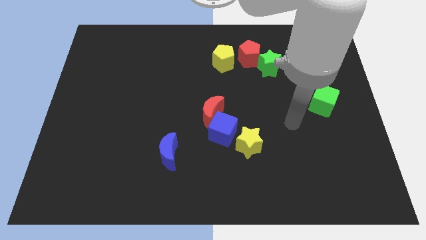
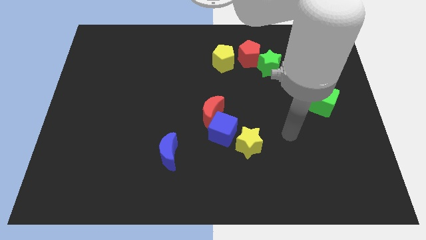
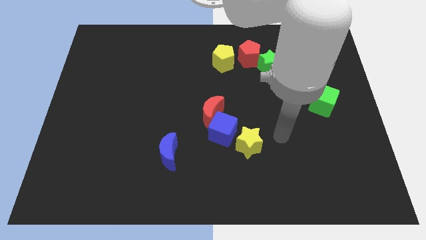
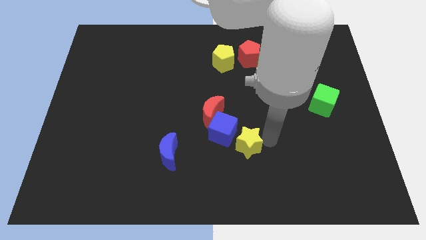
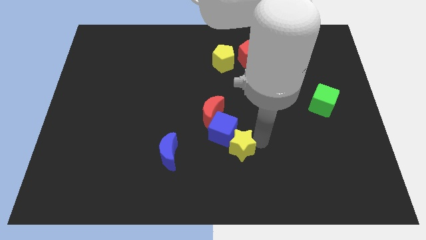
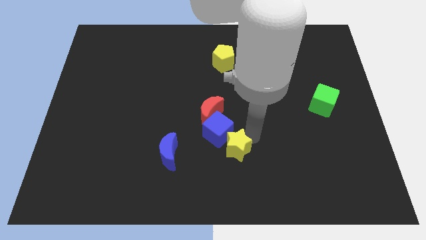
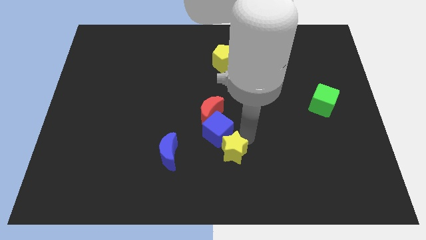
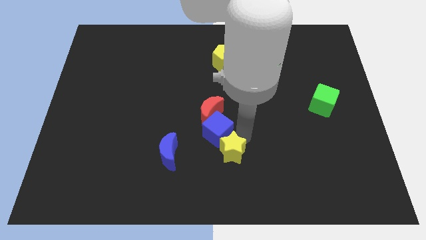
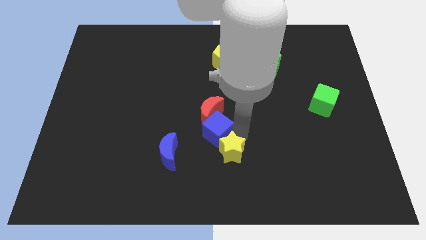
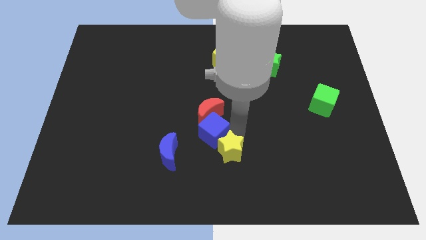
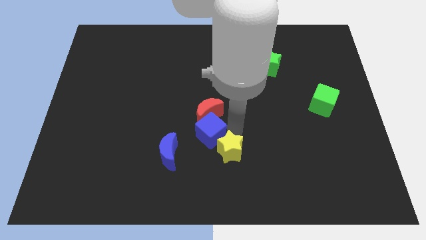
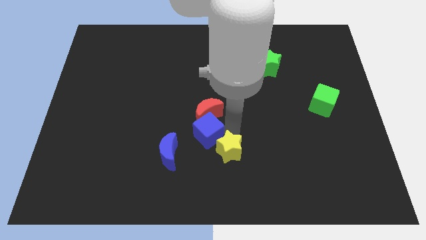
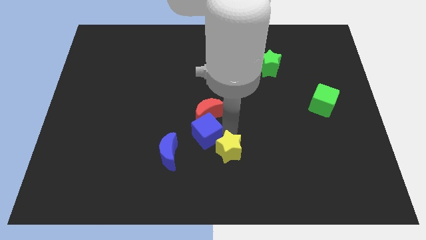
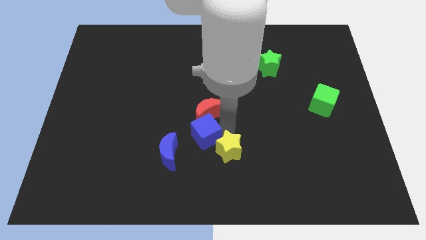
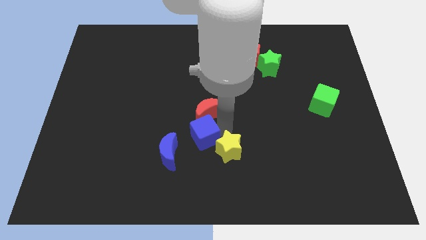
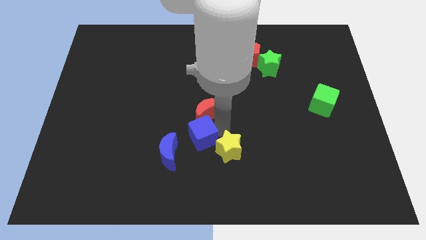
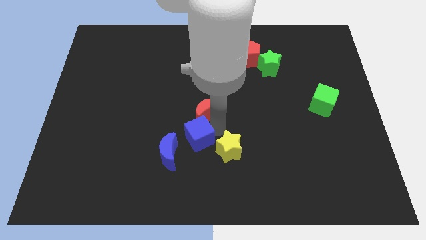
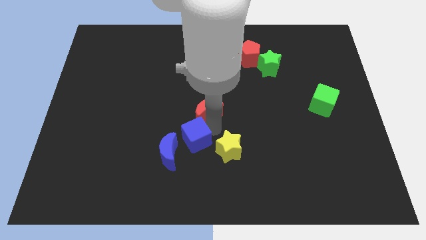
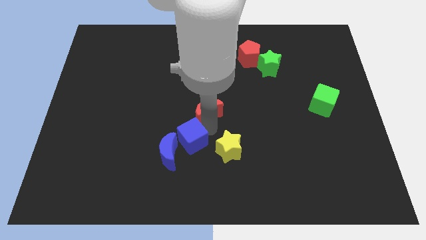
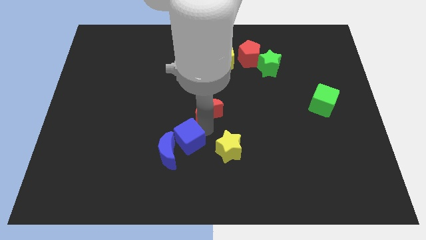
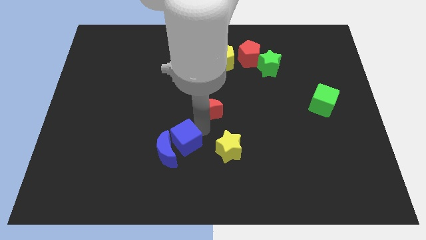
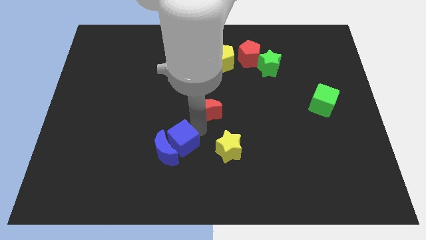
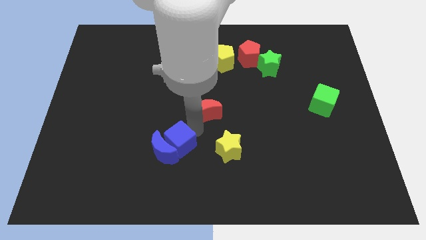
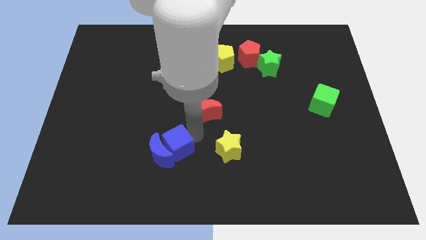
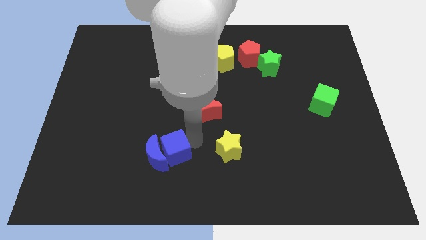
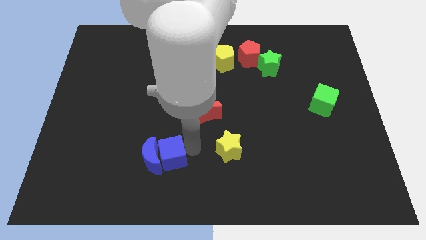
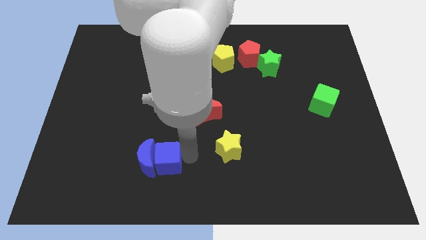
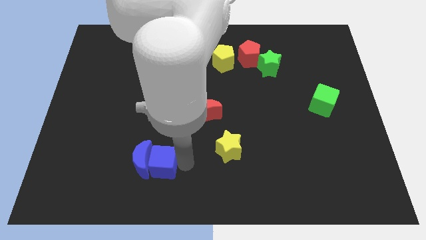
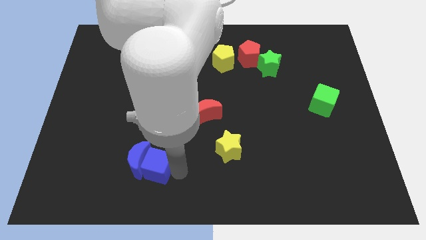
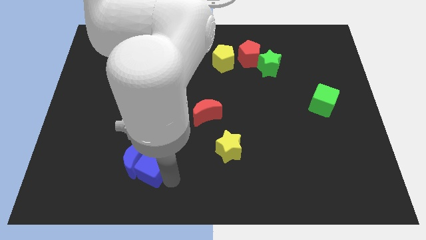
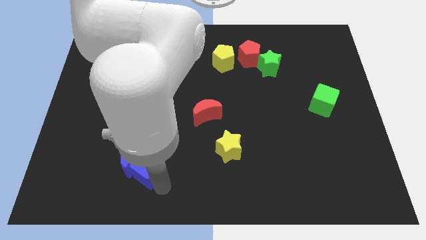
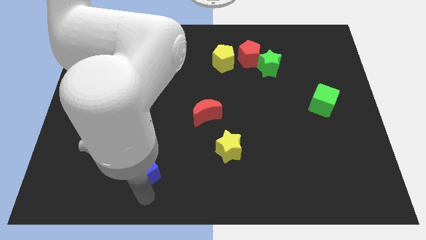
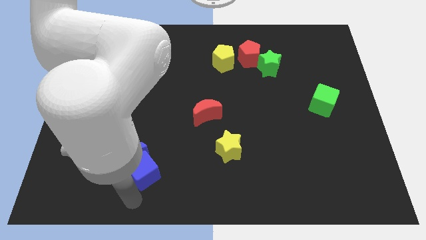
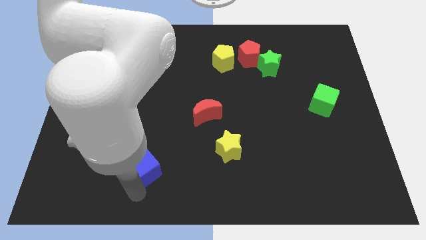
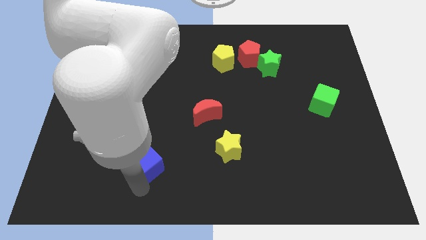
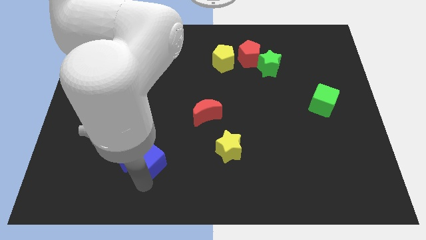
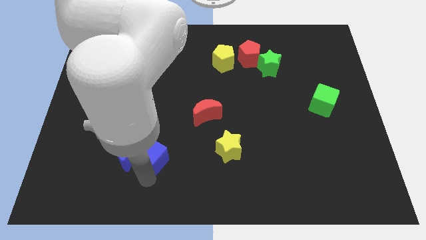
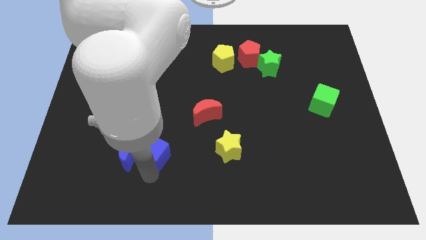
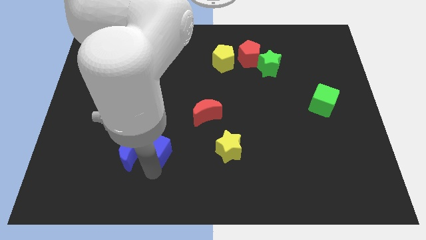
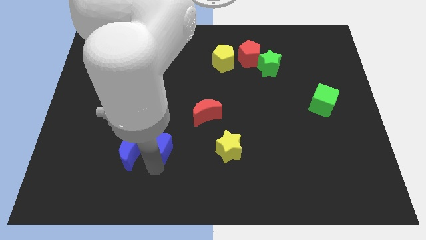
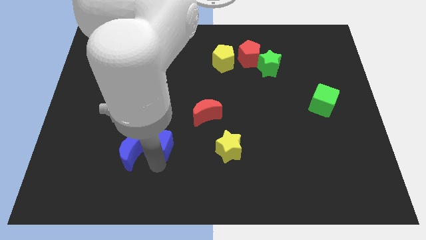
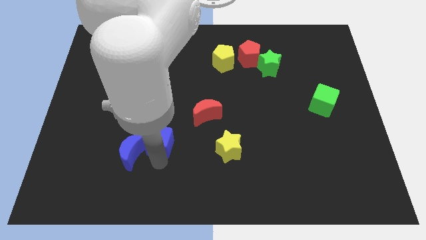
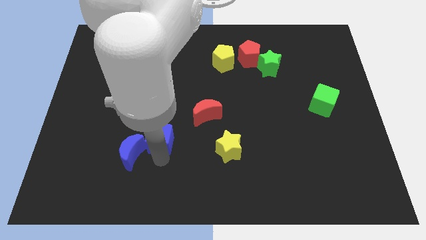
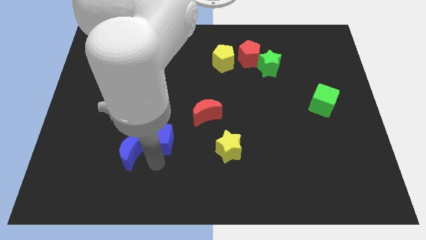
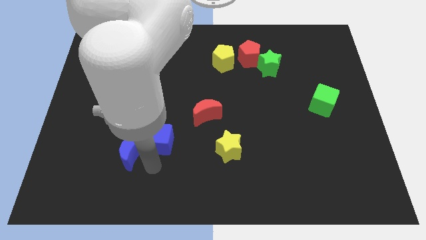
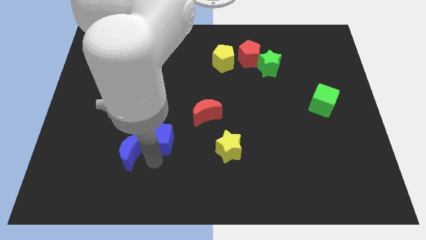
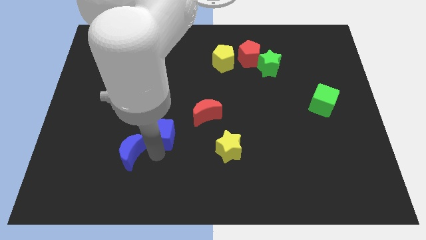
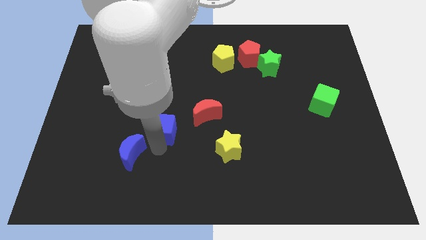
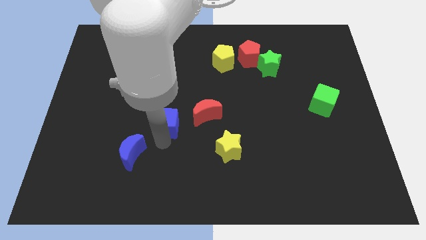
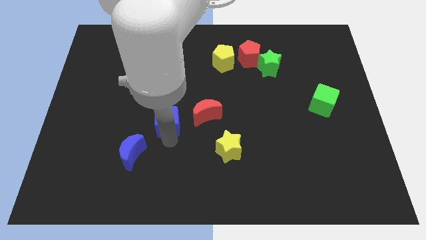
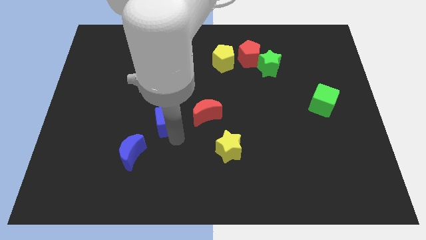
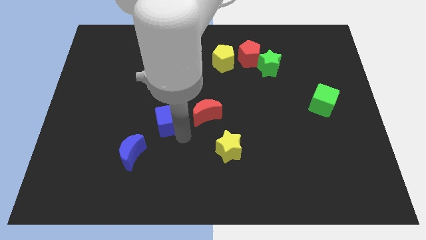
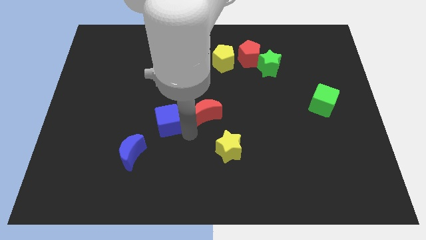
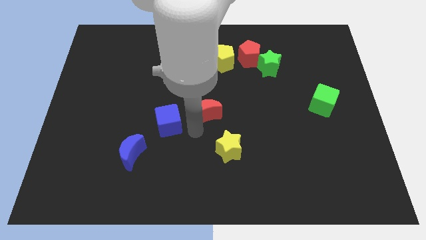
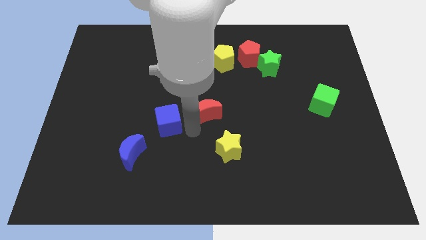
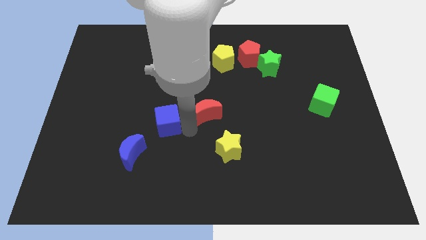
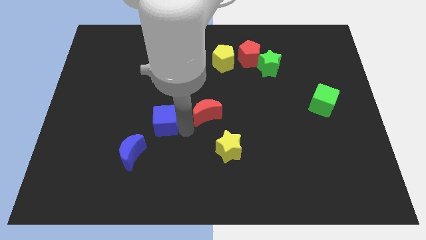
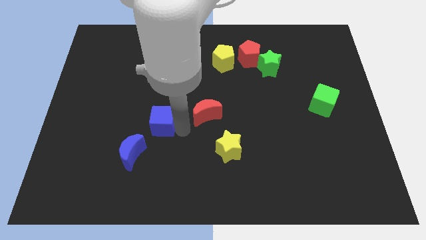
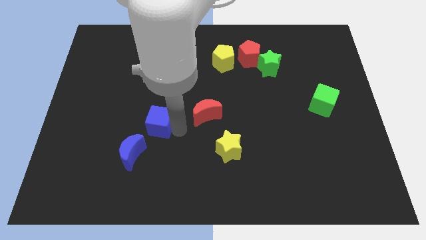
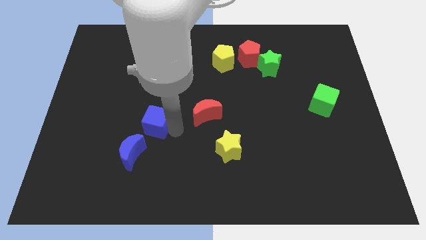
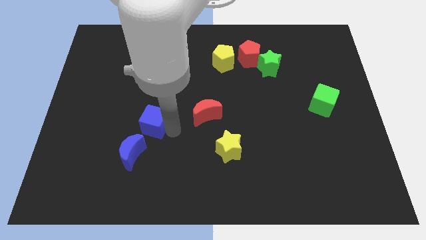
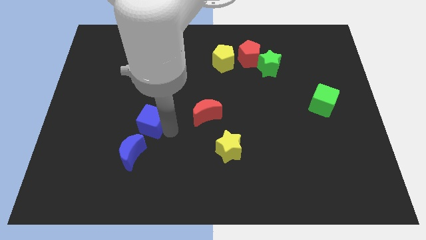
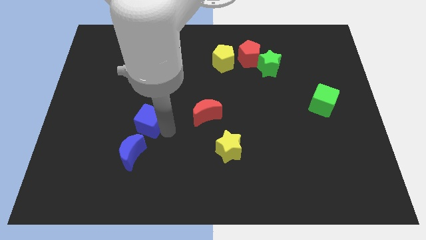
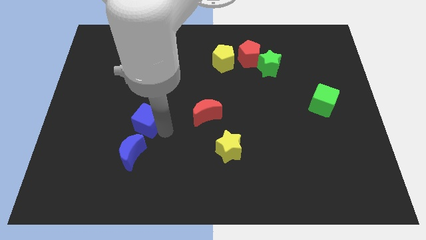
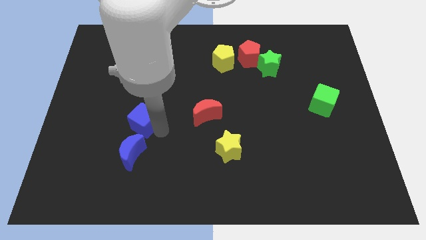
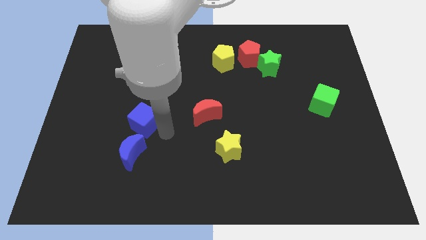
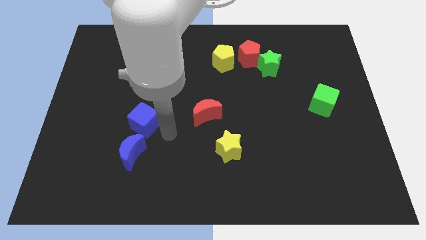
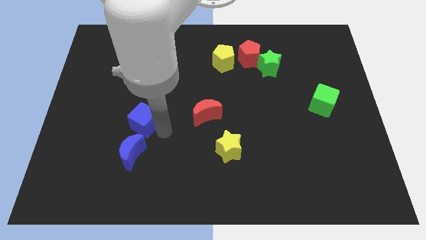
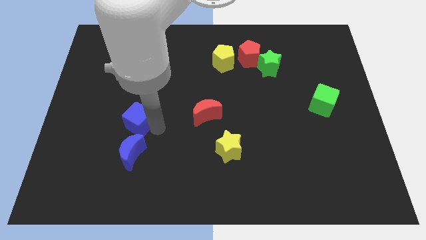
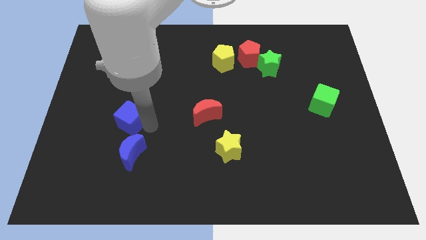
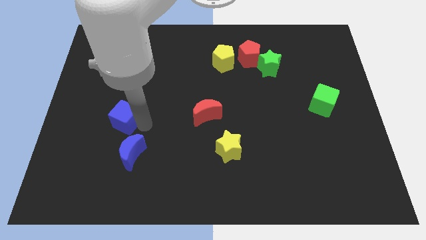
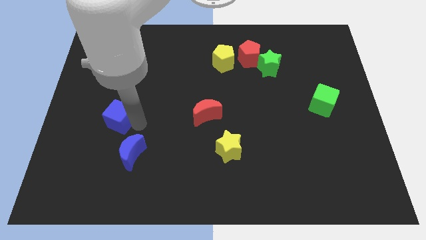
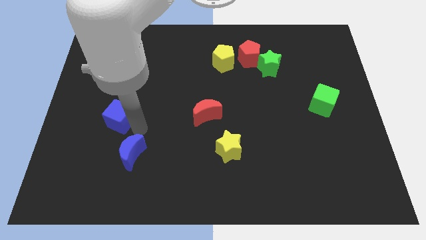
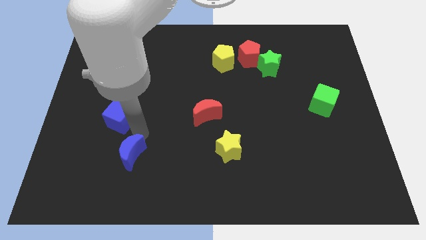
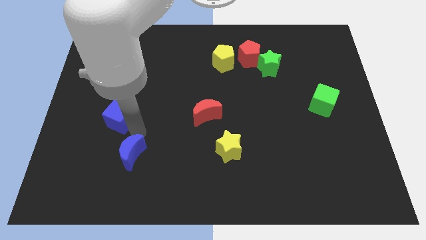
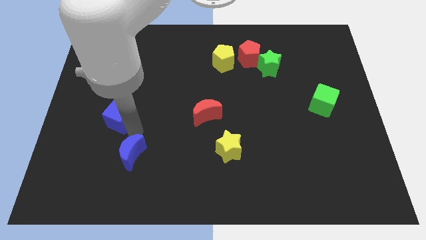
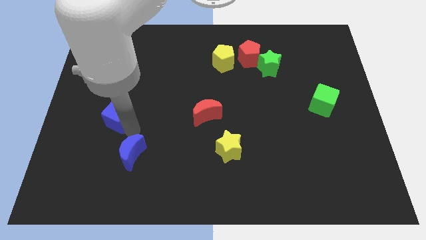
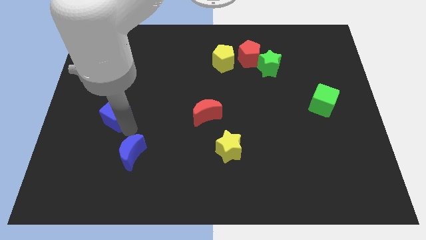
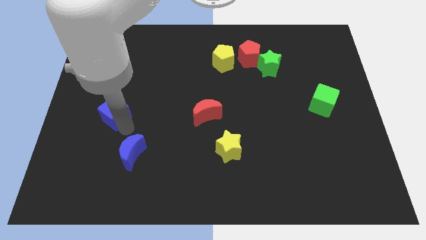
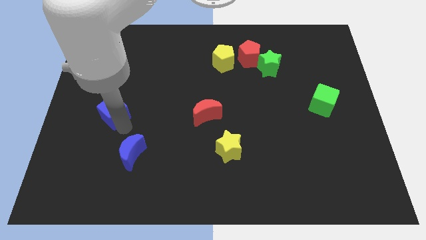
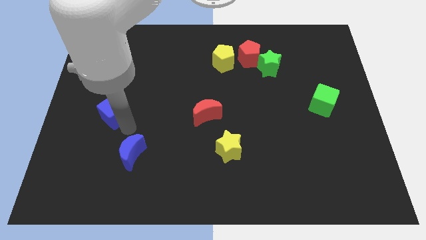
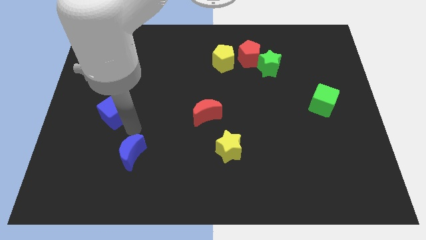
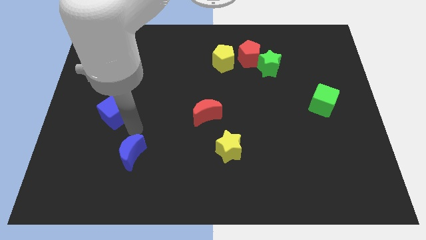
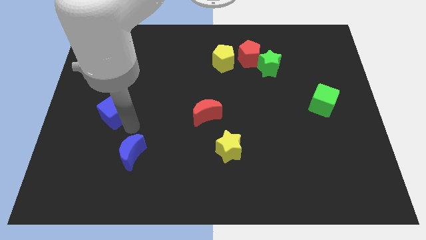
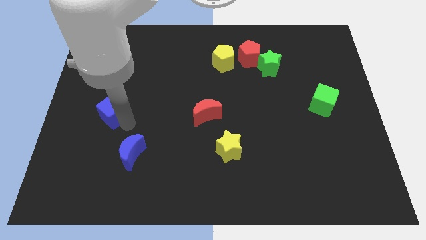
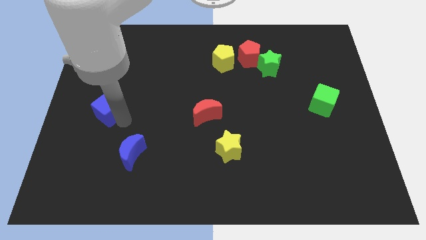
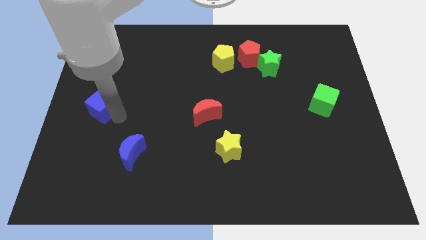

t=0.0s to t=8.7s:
put the blue cube to the left side of the board
